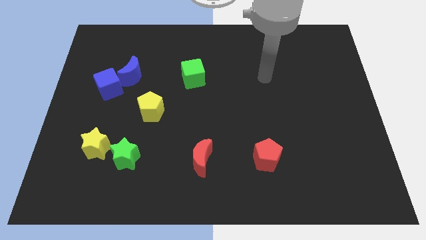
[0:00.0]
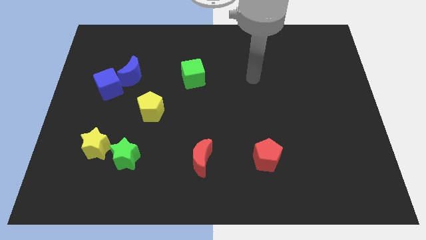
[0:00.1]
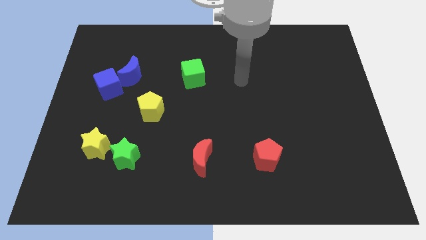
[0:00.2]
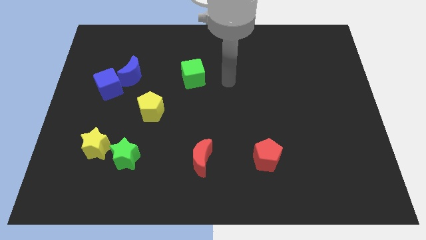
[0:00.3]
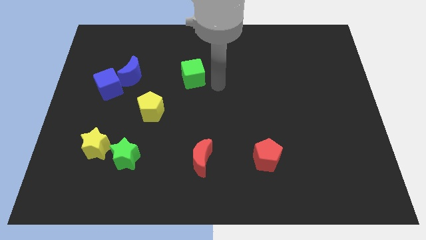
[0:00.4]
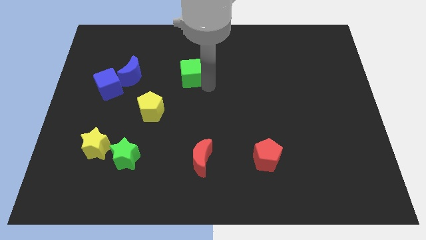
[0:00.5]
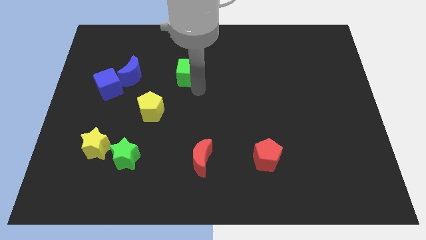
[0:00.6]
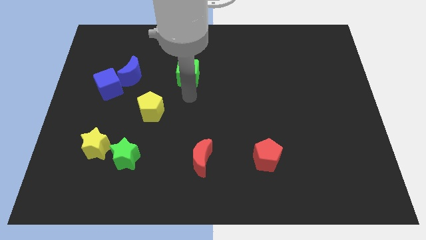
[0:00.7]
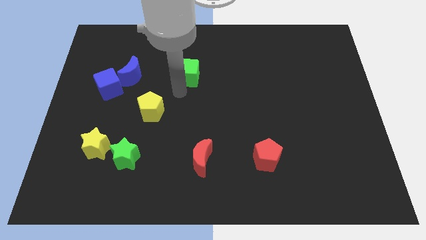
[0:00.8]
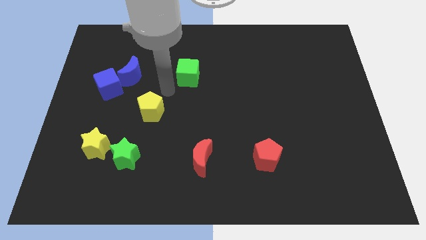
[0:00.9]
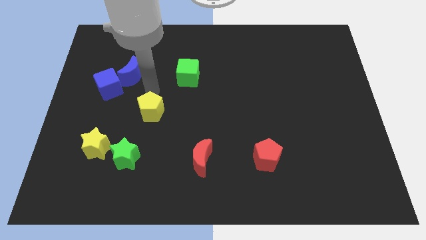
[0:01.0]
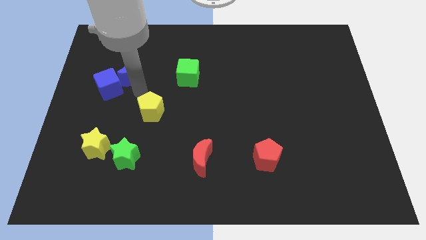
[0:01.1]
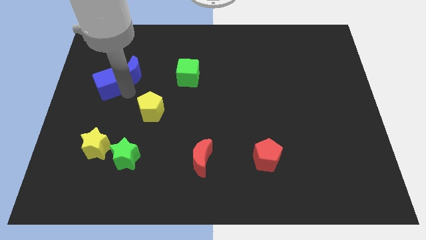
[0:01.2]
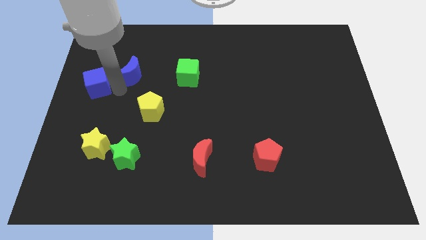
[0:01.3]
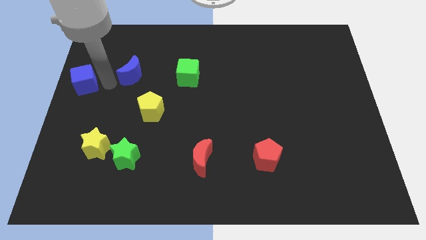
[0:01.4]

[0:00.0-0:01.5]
move the blue moon away from the blue cube

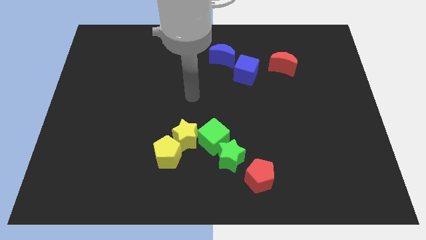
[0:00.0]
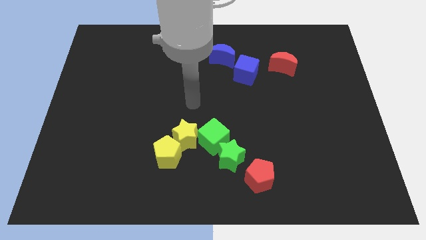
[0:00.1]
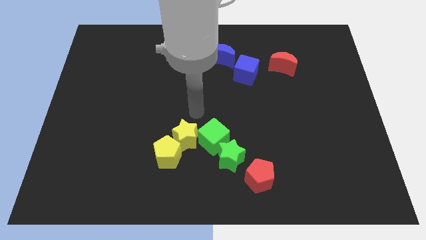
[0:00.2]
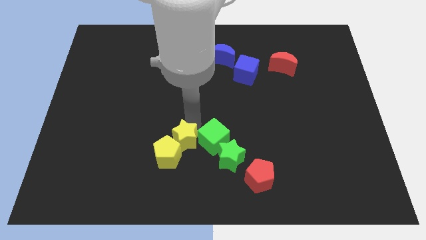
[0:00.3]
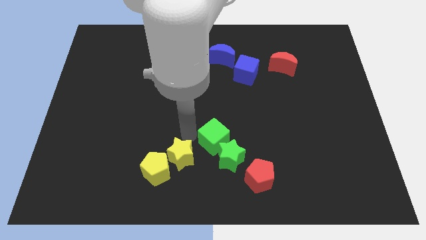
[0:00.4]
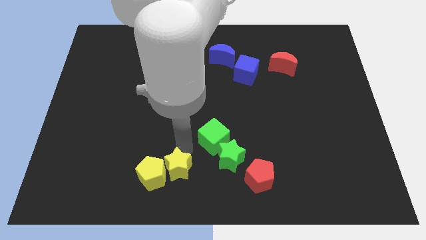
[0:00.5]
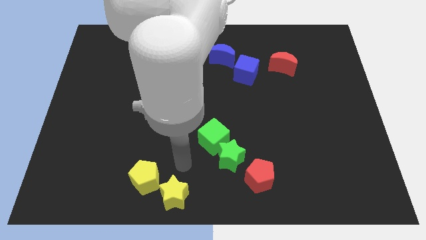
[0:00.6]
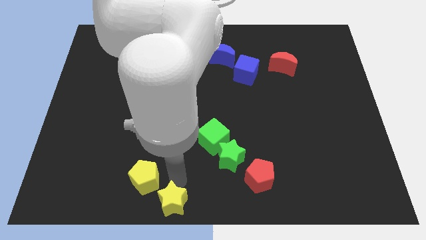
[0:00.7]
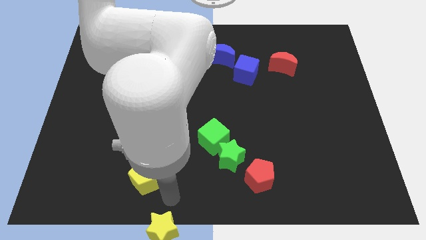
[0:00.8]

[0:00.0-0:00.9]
move the yellow pentagon away from the yellow star

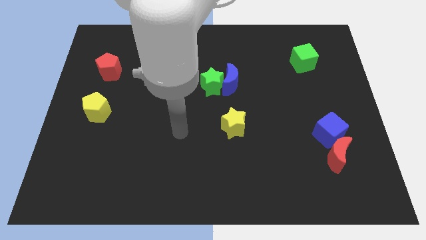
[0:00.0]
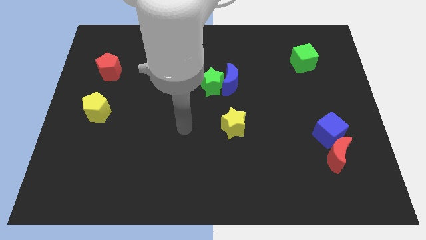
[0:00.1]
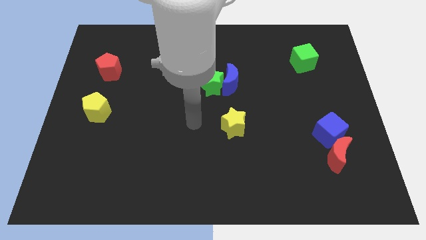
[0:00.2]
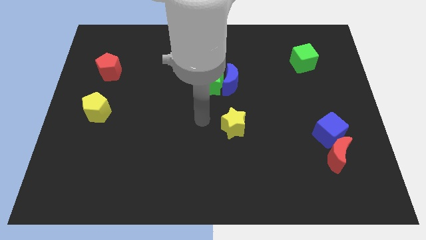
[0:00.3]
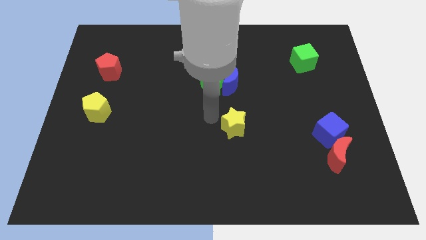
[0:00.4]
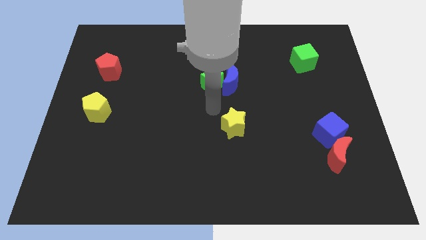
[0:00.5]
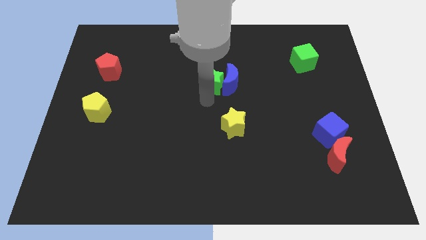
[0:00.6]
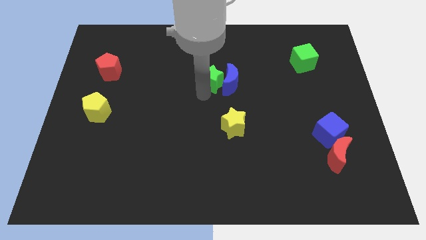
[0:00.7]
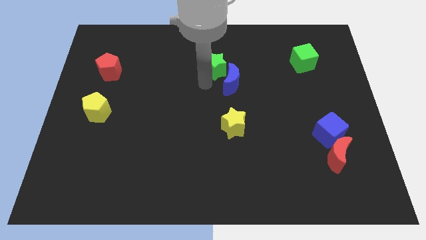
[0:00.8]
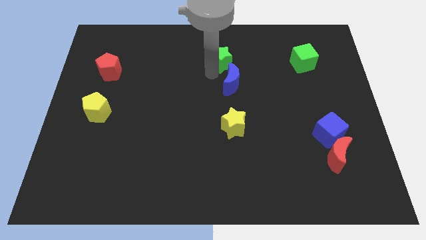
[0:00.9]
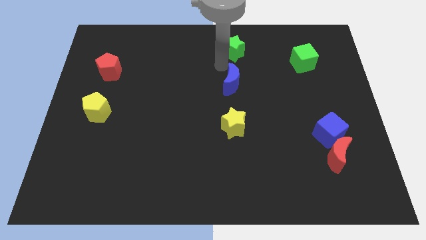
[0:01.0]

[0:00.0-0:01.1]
pull the blue moon apart from the green star

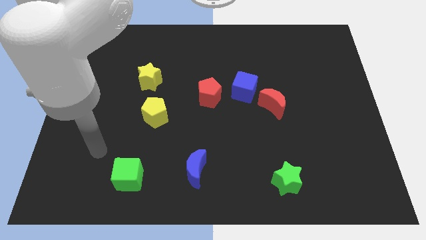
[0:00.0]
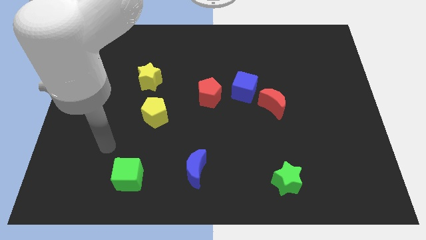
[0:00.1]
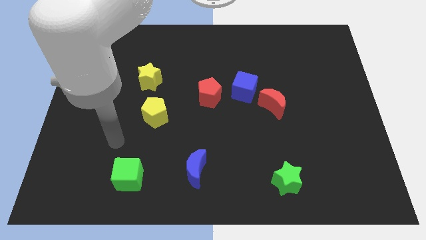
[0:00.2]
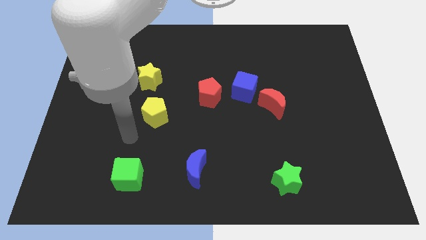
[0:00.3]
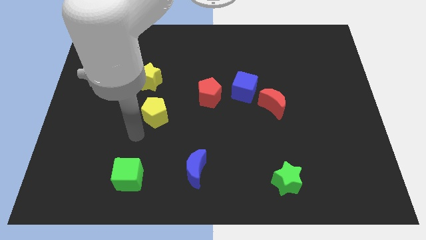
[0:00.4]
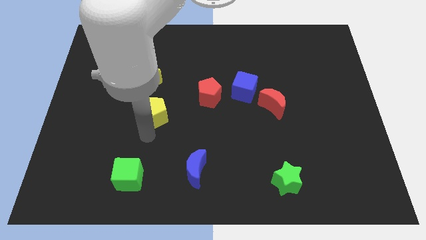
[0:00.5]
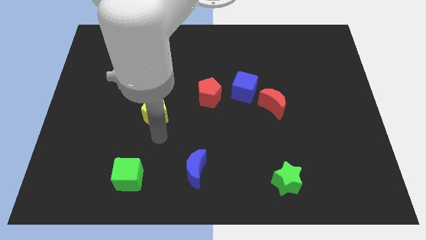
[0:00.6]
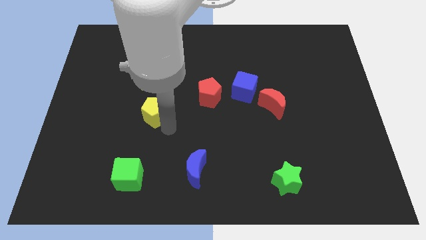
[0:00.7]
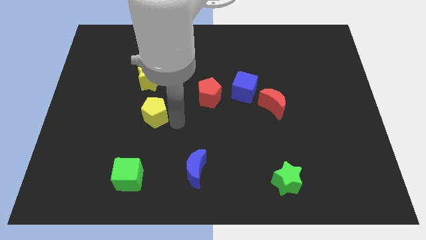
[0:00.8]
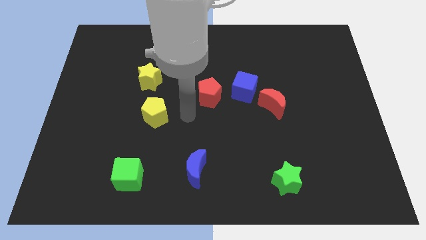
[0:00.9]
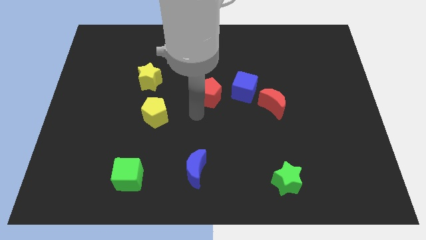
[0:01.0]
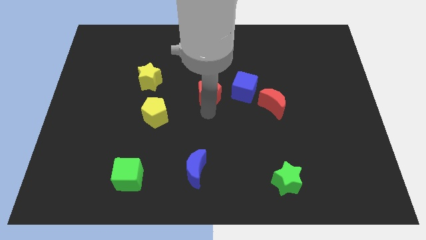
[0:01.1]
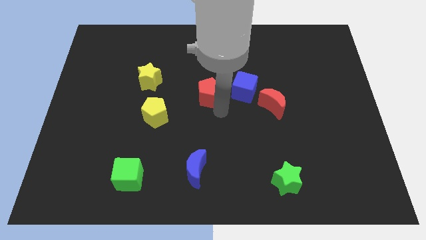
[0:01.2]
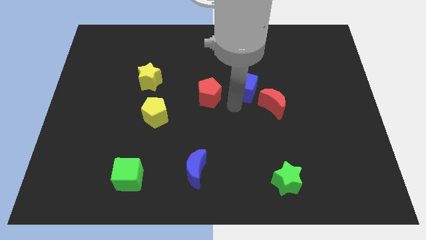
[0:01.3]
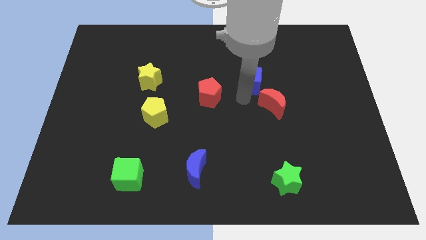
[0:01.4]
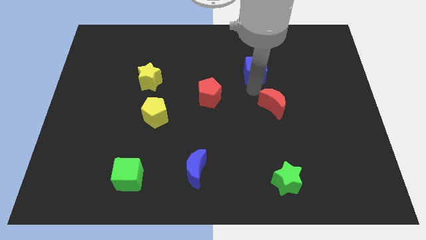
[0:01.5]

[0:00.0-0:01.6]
move the red moon away from the blue cube

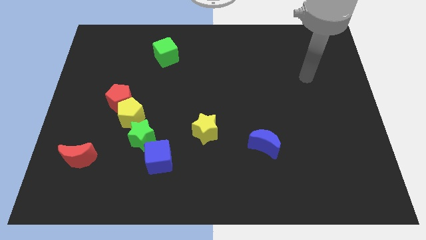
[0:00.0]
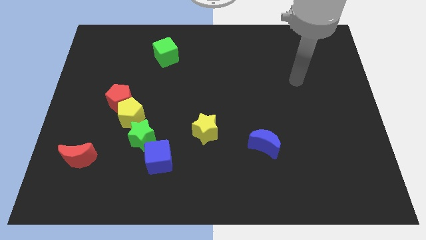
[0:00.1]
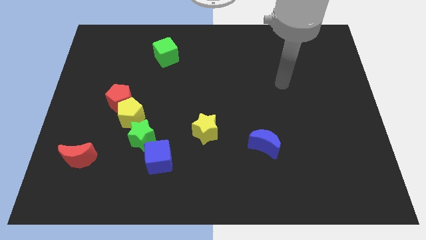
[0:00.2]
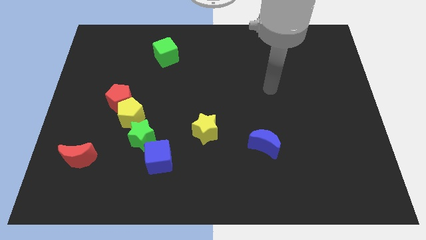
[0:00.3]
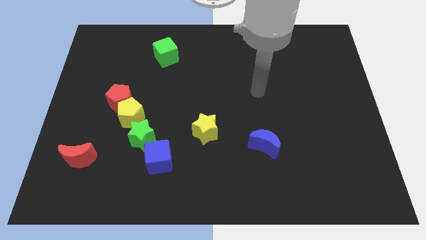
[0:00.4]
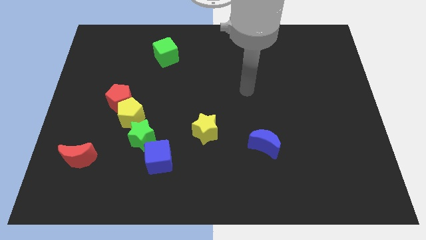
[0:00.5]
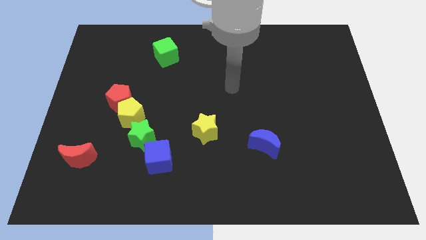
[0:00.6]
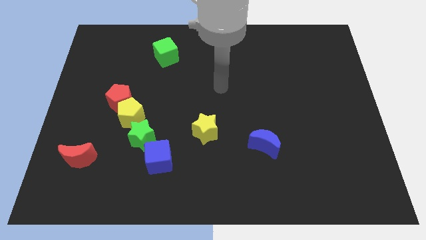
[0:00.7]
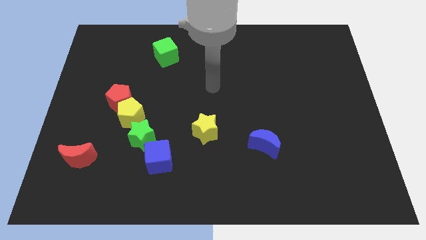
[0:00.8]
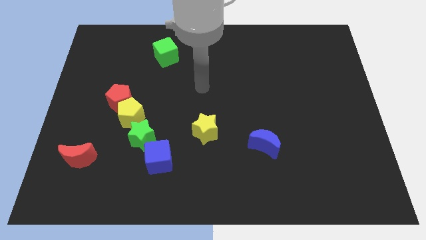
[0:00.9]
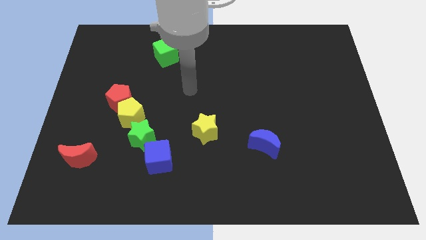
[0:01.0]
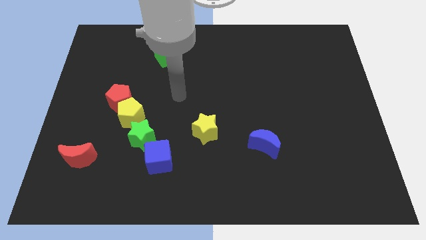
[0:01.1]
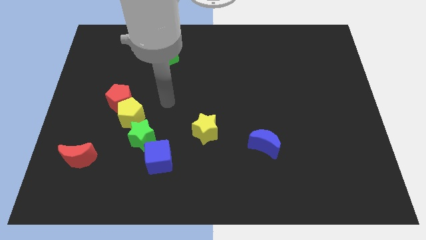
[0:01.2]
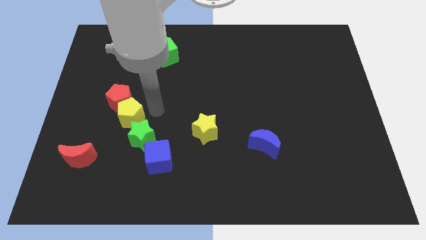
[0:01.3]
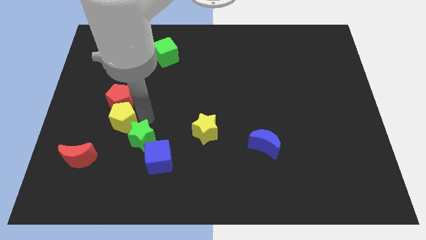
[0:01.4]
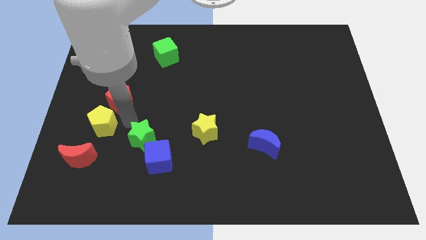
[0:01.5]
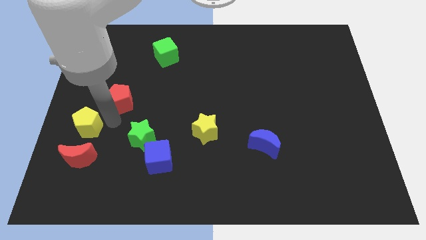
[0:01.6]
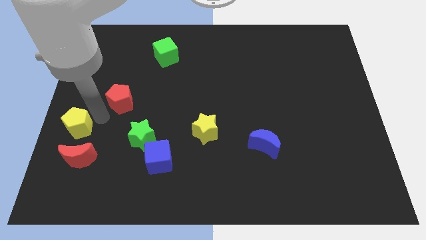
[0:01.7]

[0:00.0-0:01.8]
move the red pentagon away from the yellow pentagon

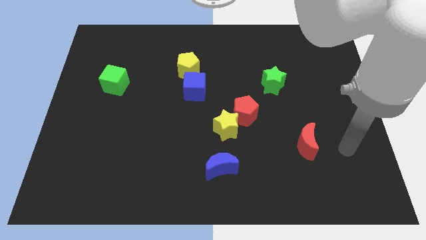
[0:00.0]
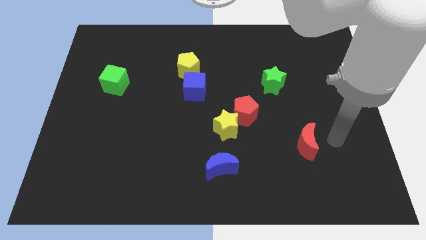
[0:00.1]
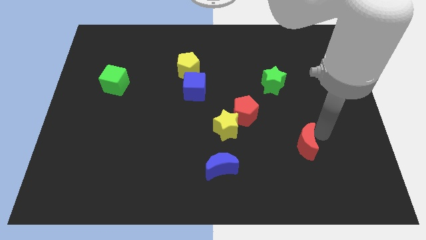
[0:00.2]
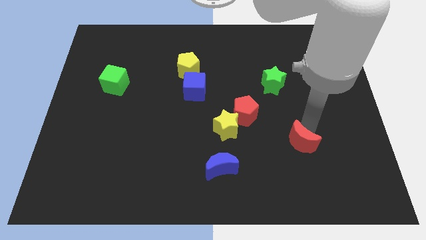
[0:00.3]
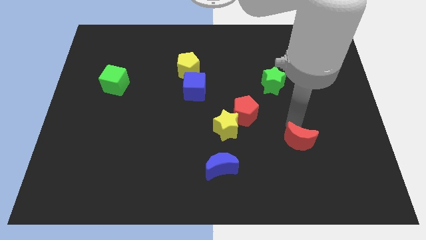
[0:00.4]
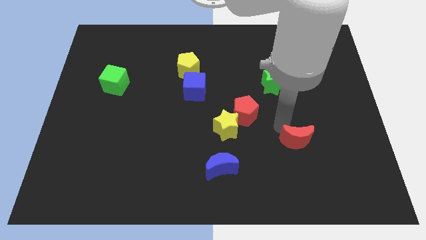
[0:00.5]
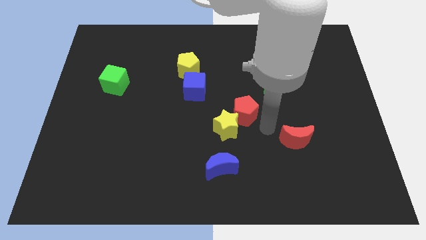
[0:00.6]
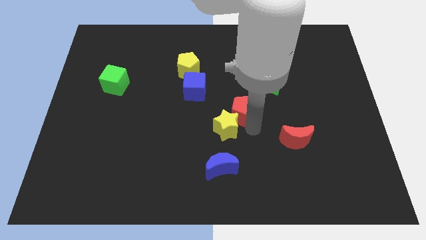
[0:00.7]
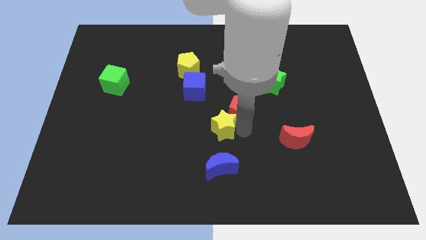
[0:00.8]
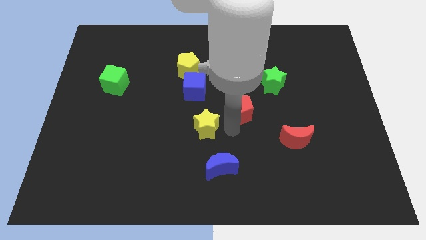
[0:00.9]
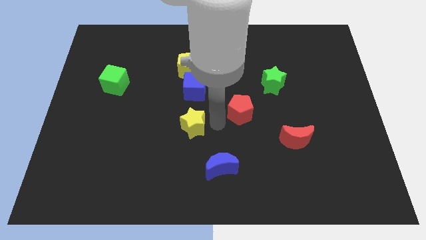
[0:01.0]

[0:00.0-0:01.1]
separate the red pentagon from the yellow star

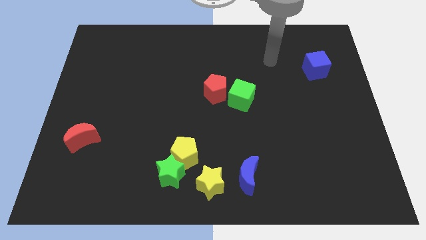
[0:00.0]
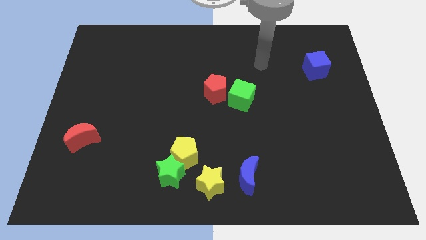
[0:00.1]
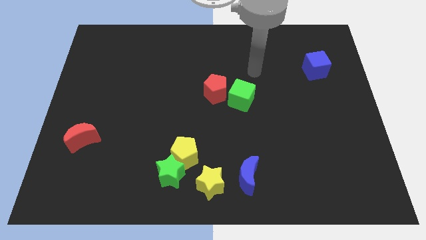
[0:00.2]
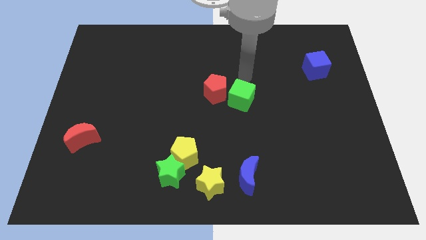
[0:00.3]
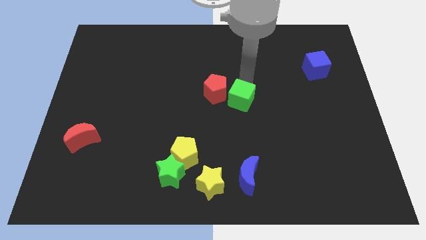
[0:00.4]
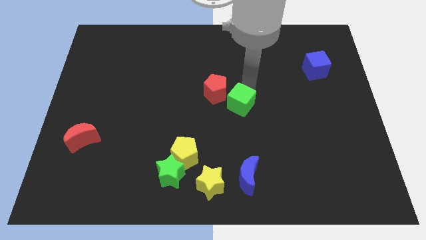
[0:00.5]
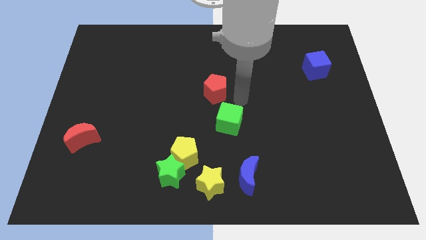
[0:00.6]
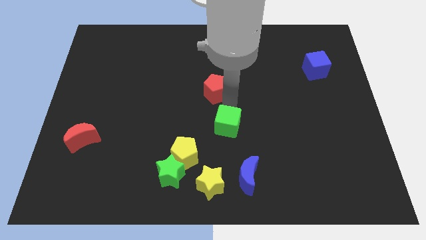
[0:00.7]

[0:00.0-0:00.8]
separate the red pentagon from the green cube

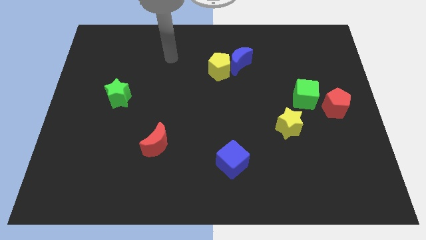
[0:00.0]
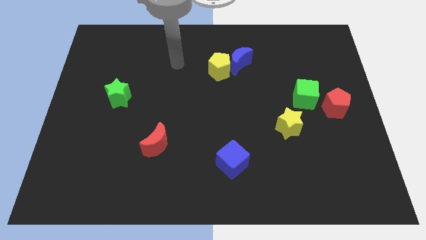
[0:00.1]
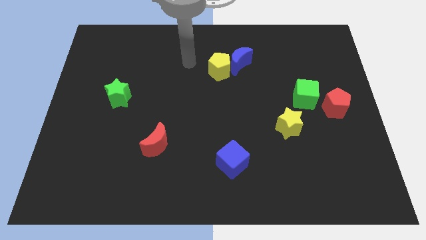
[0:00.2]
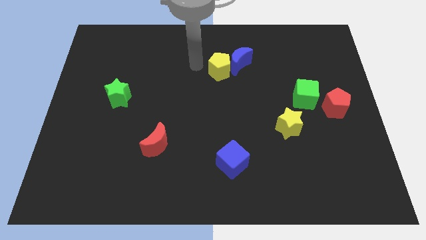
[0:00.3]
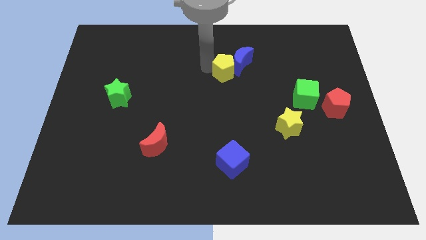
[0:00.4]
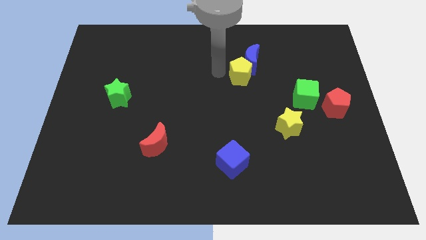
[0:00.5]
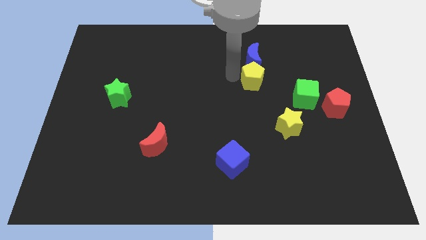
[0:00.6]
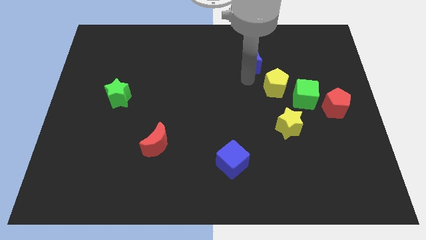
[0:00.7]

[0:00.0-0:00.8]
pull the blue moon apart from the yellow pentagon
